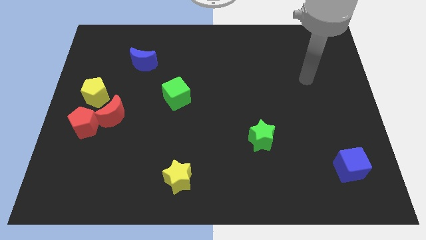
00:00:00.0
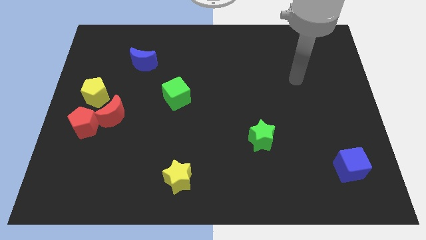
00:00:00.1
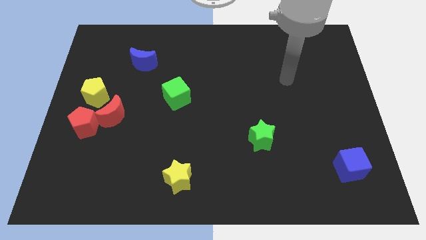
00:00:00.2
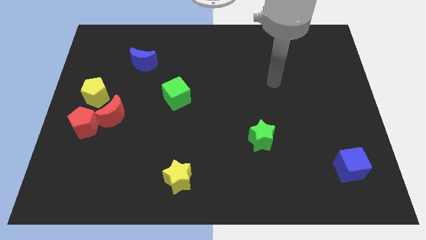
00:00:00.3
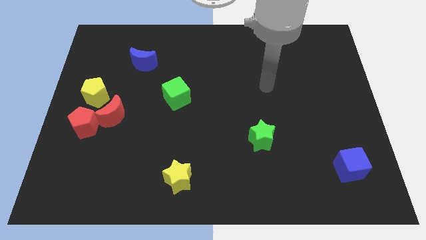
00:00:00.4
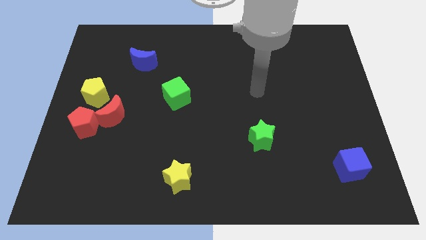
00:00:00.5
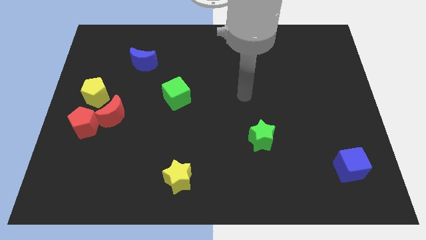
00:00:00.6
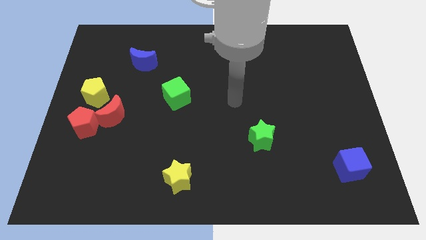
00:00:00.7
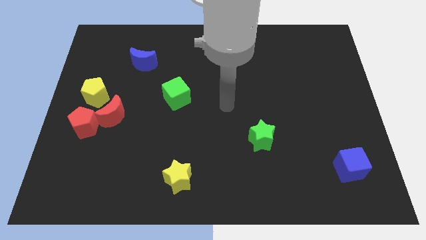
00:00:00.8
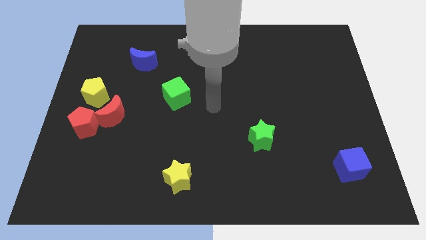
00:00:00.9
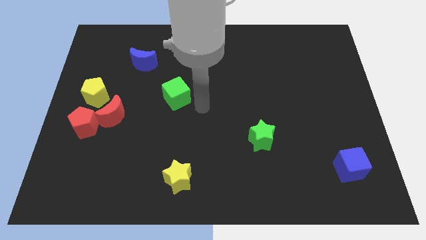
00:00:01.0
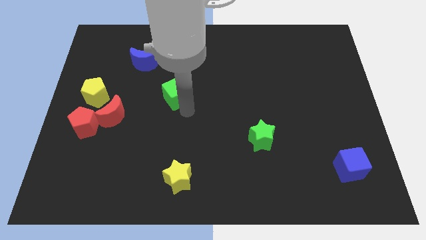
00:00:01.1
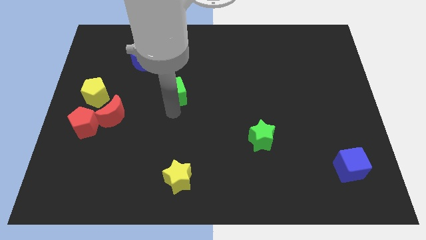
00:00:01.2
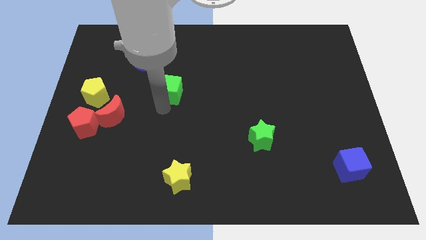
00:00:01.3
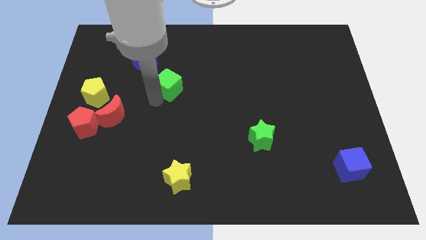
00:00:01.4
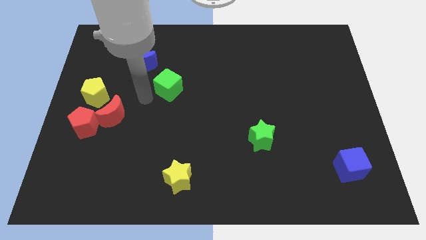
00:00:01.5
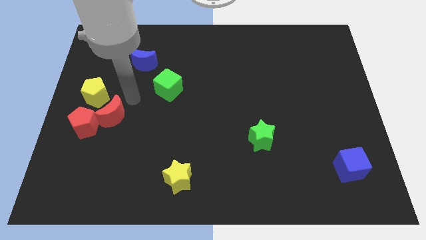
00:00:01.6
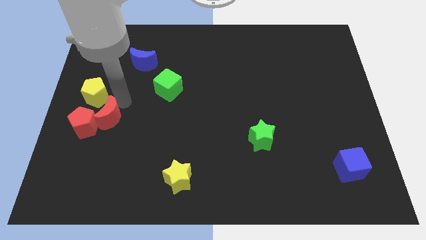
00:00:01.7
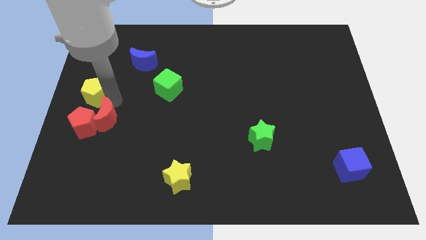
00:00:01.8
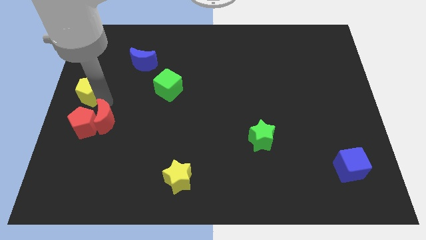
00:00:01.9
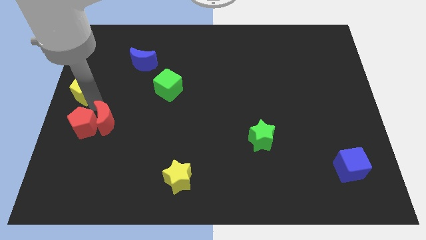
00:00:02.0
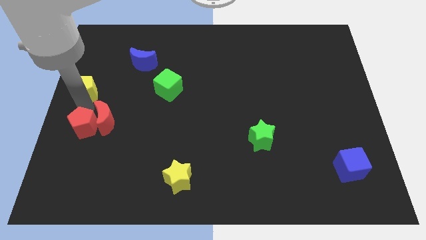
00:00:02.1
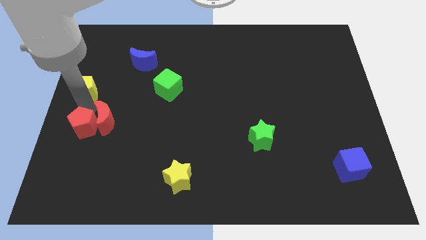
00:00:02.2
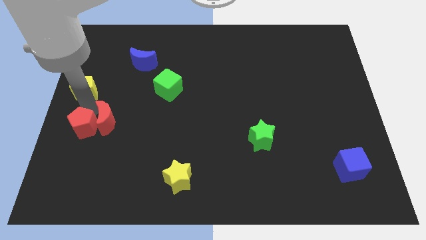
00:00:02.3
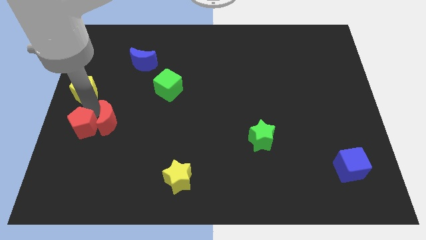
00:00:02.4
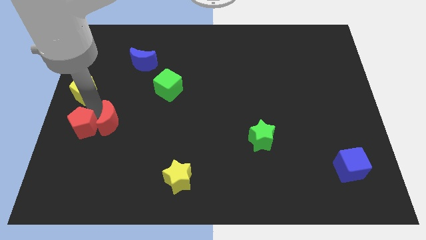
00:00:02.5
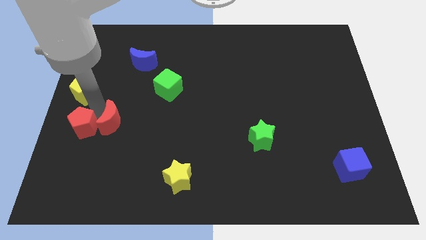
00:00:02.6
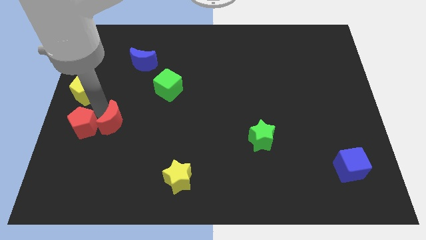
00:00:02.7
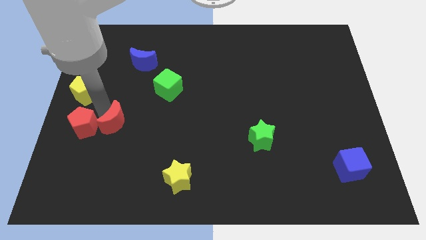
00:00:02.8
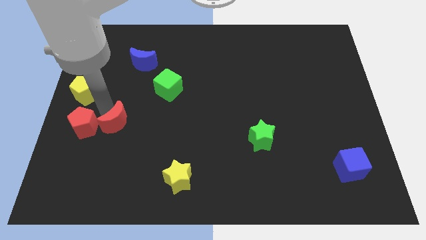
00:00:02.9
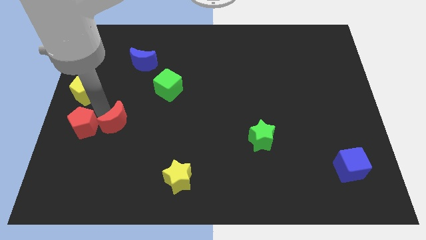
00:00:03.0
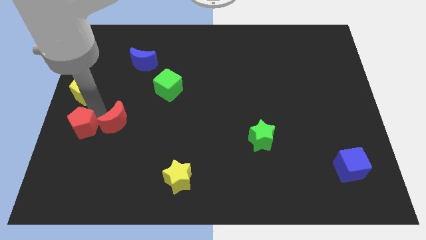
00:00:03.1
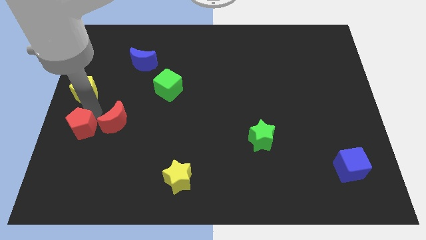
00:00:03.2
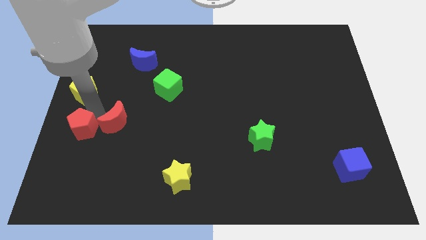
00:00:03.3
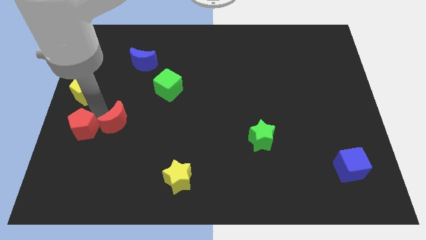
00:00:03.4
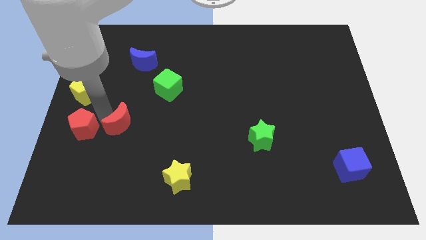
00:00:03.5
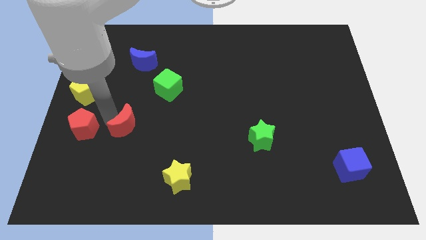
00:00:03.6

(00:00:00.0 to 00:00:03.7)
move the red moon away from the red pentagon and yellow pentagon

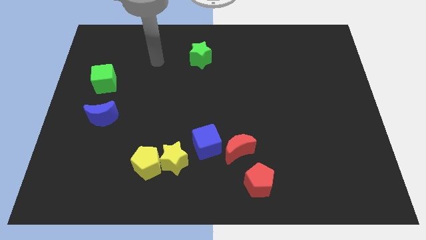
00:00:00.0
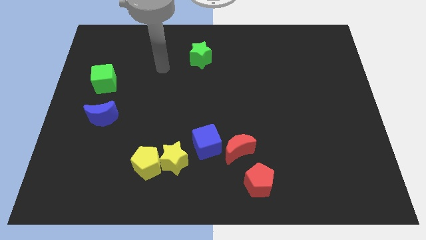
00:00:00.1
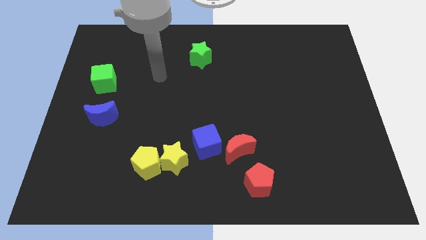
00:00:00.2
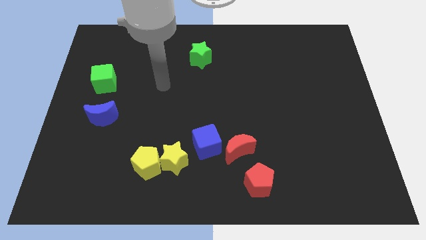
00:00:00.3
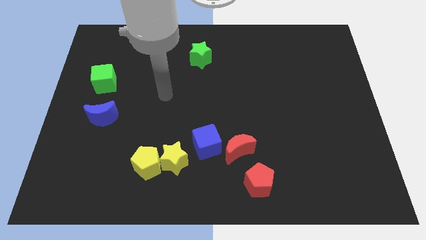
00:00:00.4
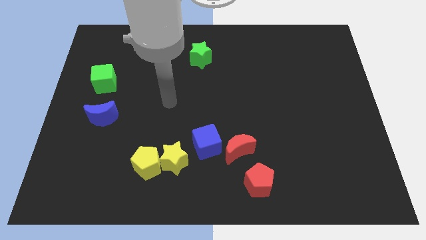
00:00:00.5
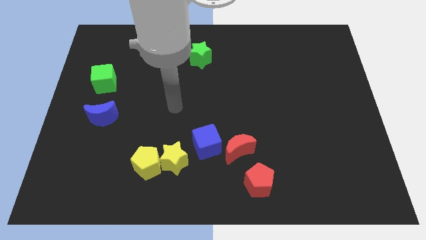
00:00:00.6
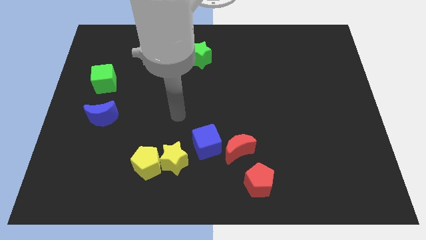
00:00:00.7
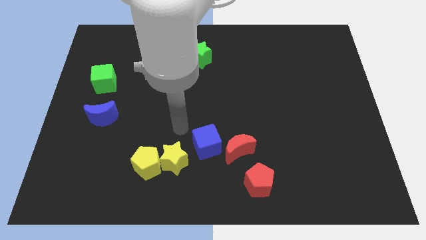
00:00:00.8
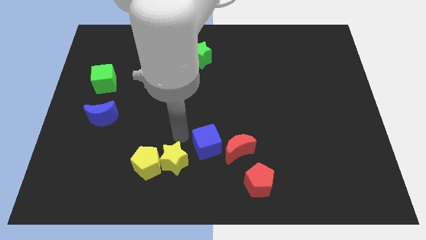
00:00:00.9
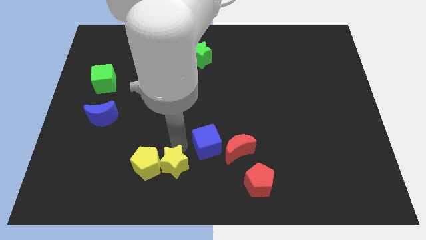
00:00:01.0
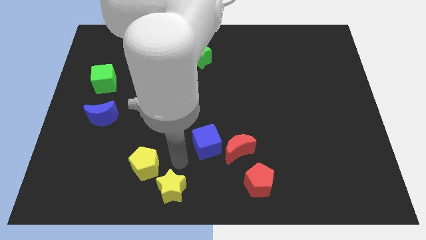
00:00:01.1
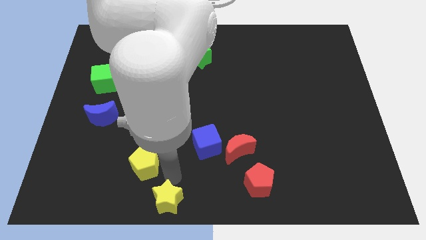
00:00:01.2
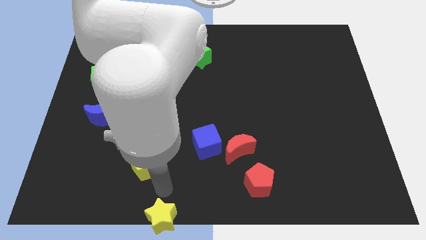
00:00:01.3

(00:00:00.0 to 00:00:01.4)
move the yellow pentagon away from the yellow star

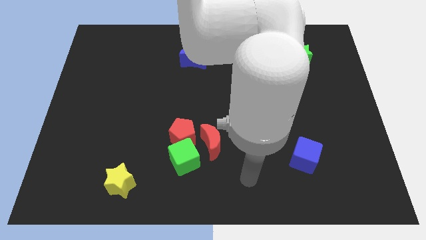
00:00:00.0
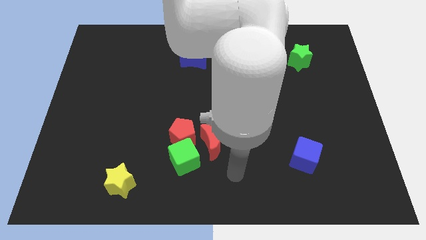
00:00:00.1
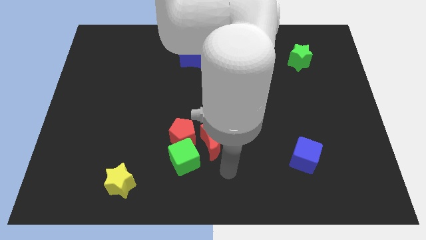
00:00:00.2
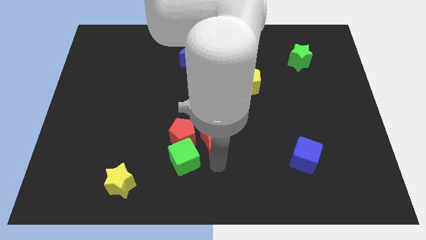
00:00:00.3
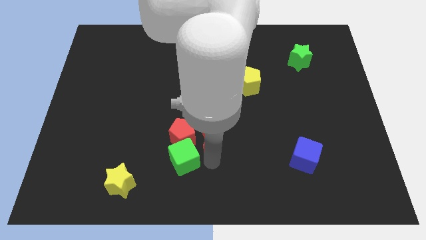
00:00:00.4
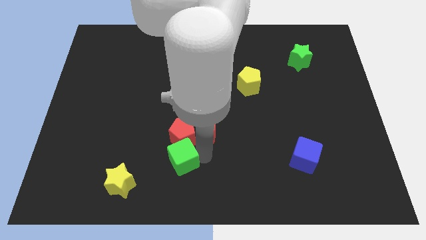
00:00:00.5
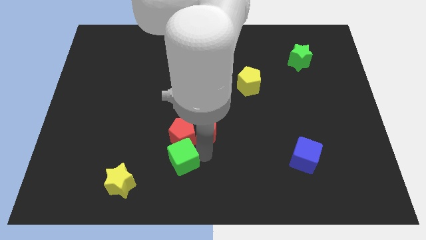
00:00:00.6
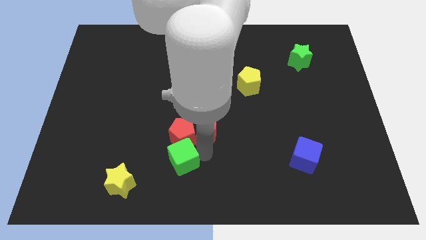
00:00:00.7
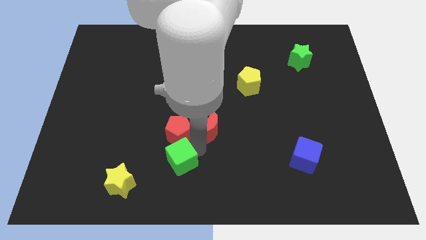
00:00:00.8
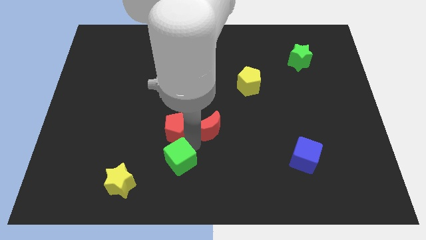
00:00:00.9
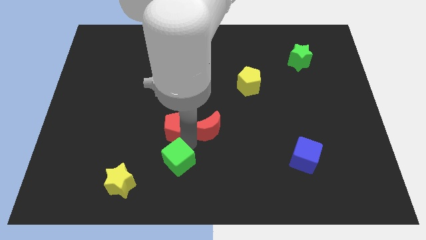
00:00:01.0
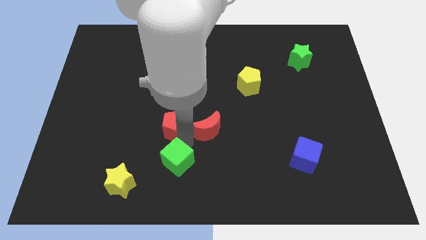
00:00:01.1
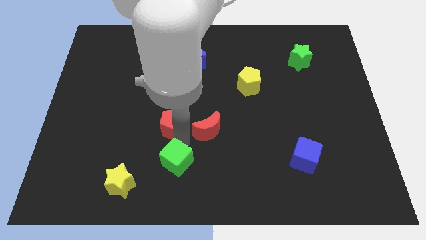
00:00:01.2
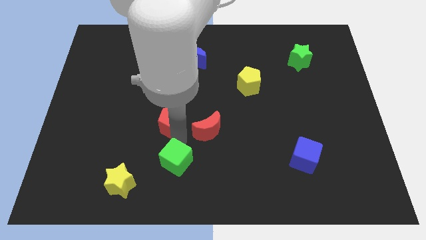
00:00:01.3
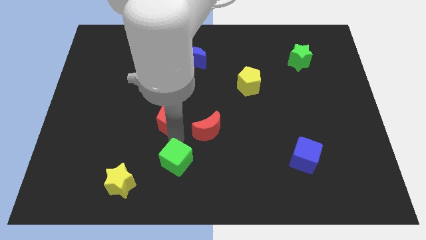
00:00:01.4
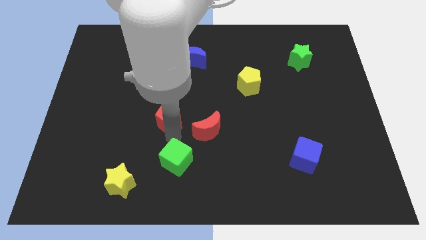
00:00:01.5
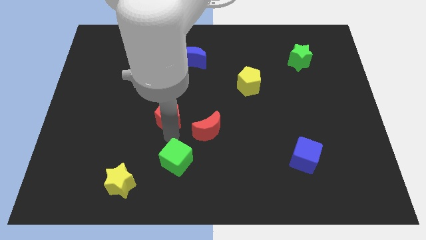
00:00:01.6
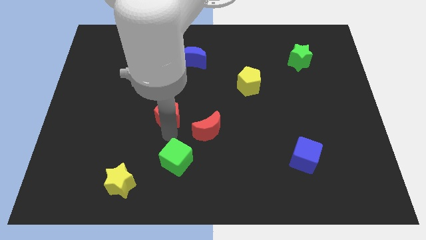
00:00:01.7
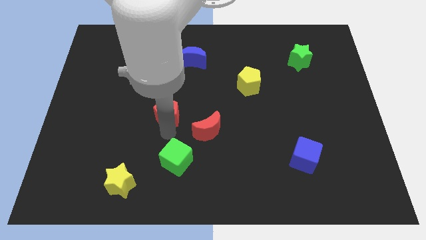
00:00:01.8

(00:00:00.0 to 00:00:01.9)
separate the red pentagon from the green cube and red moon

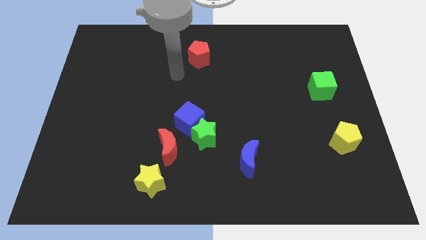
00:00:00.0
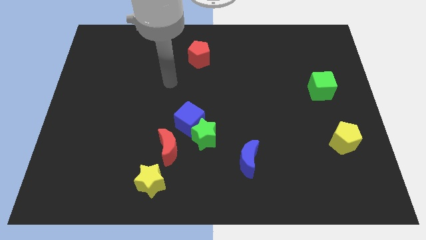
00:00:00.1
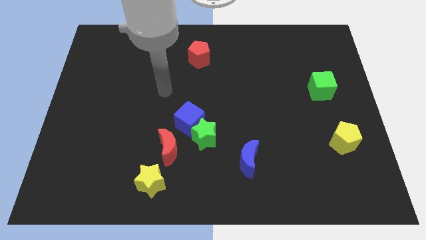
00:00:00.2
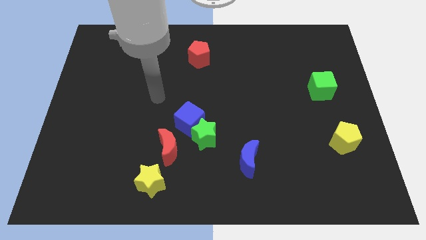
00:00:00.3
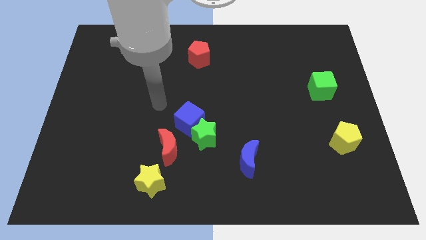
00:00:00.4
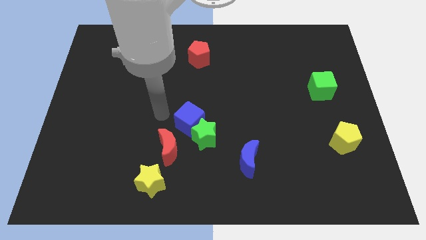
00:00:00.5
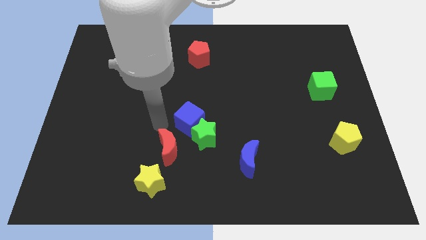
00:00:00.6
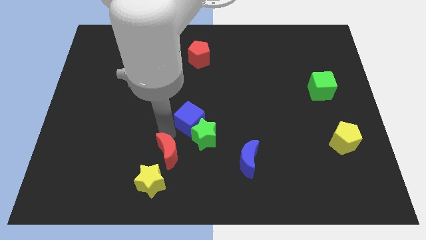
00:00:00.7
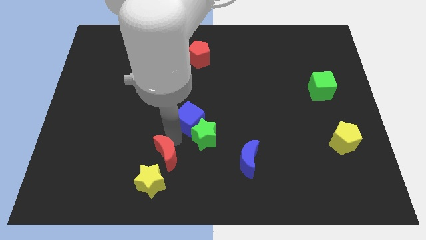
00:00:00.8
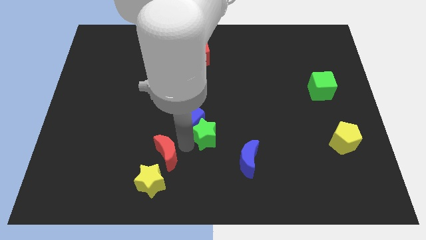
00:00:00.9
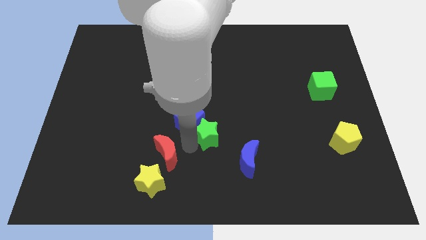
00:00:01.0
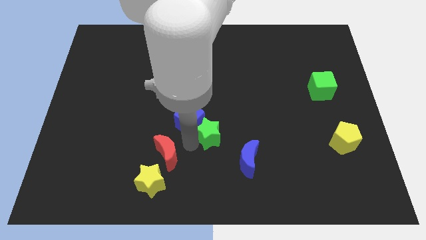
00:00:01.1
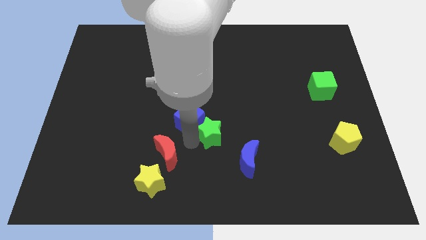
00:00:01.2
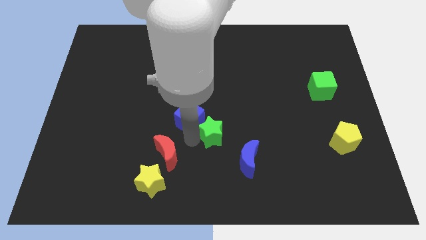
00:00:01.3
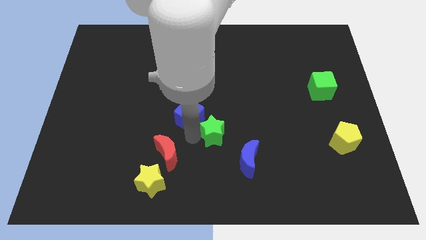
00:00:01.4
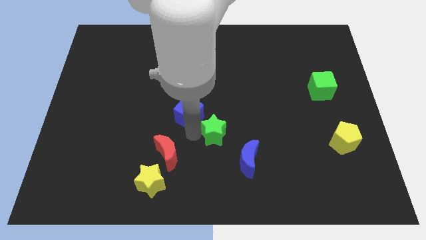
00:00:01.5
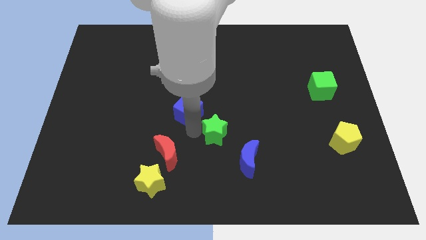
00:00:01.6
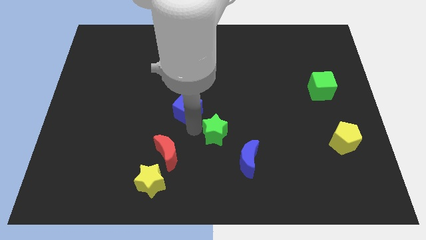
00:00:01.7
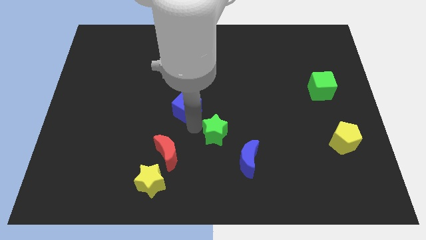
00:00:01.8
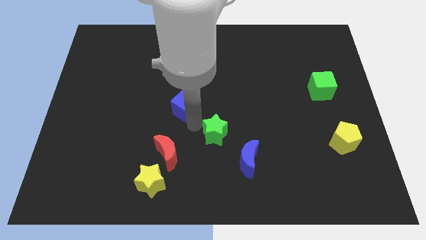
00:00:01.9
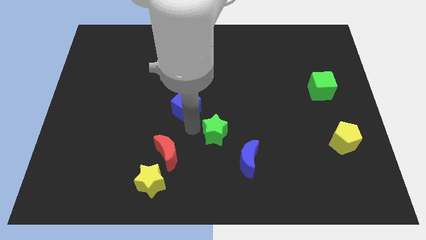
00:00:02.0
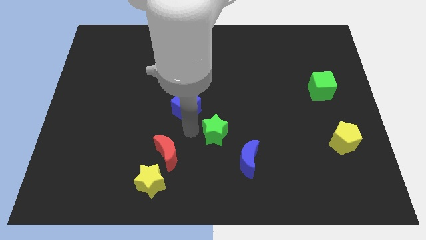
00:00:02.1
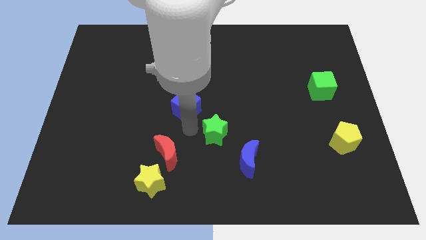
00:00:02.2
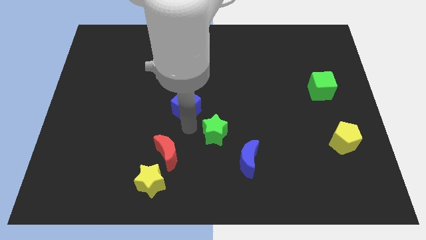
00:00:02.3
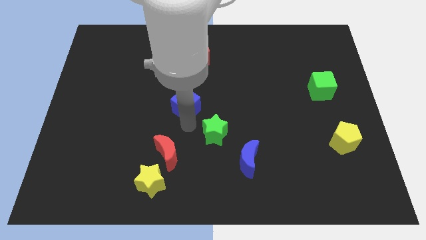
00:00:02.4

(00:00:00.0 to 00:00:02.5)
move the blue cube away from the green star and red moon

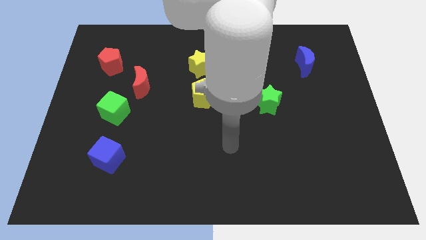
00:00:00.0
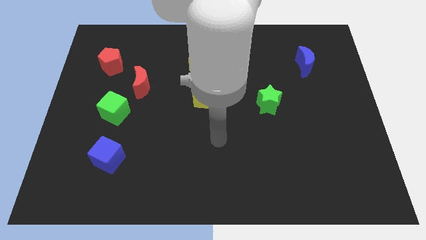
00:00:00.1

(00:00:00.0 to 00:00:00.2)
pull the red moon apart from the green cube
